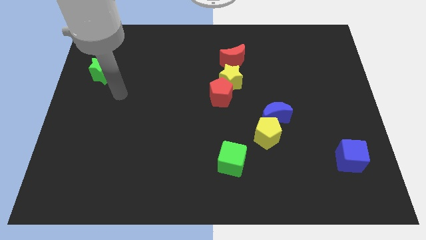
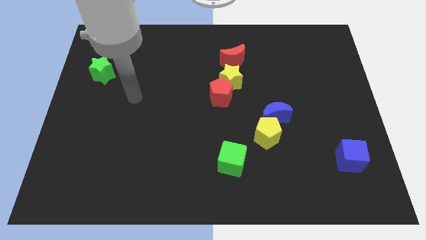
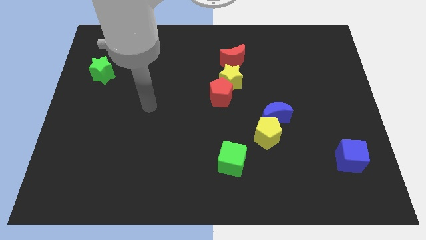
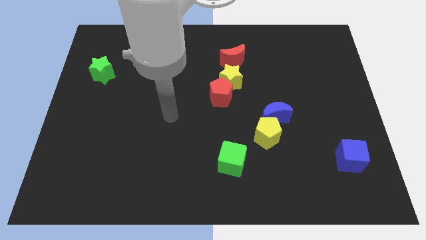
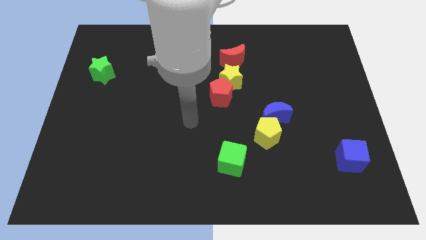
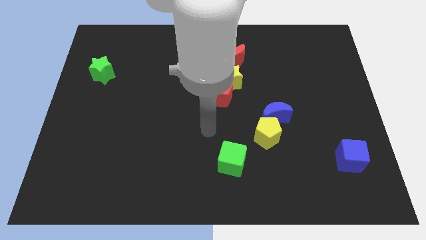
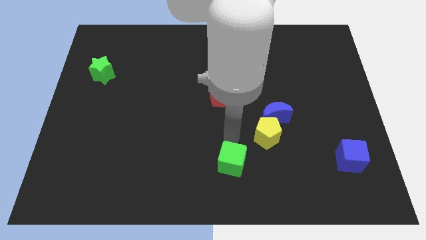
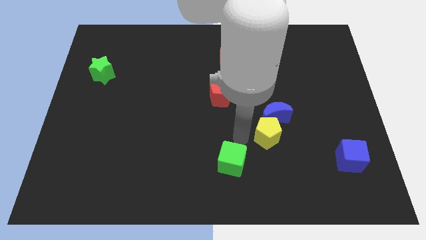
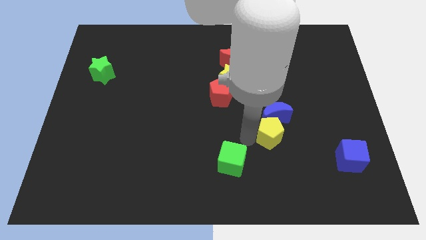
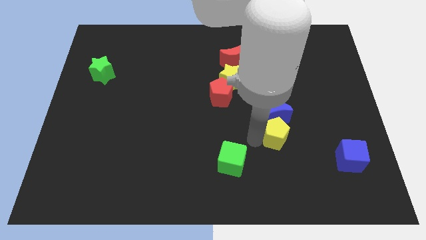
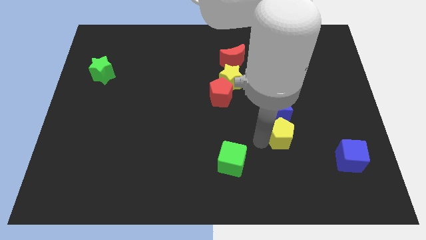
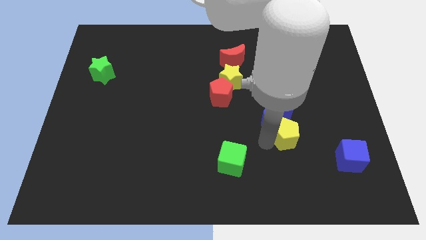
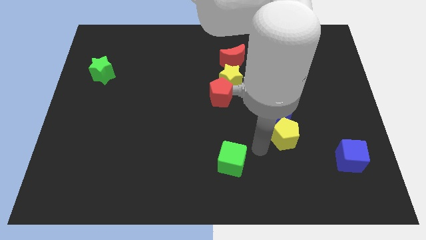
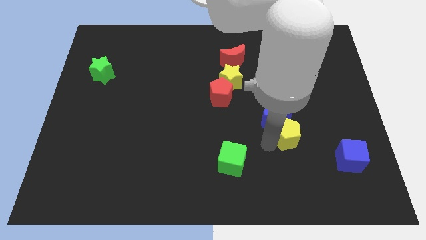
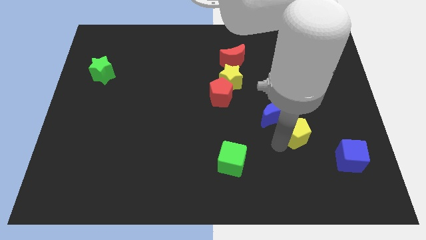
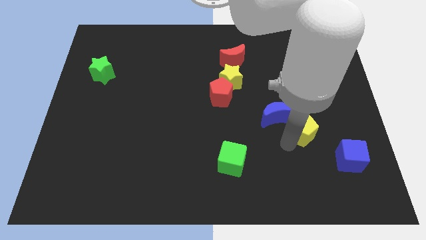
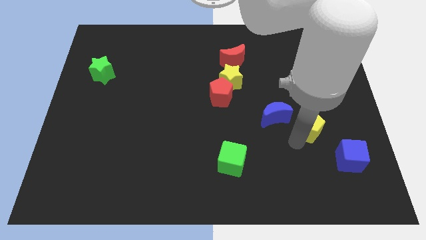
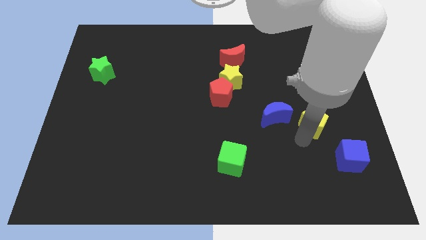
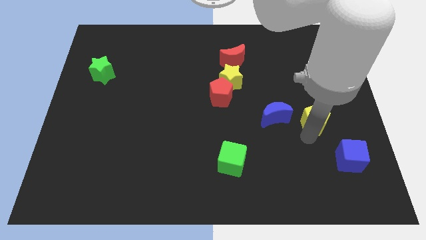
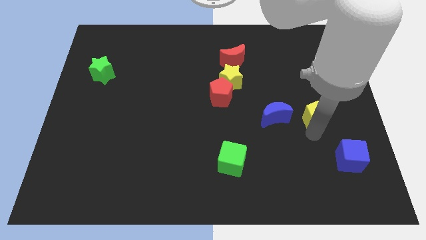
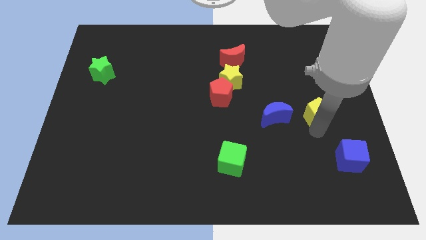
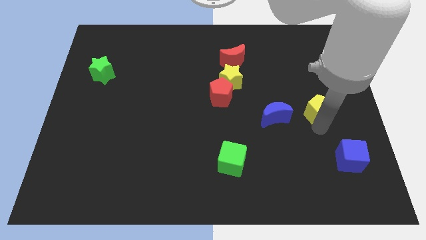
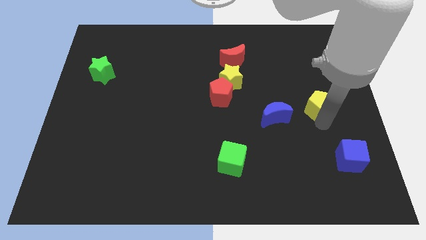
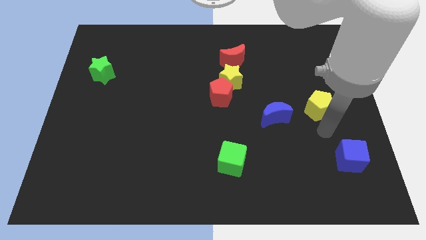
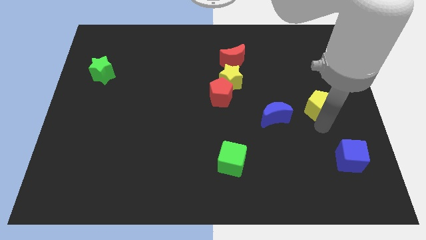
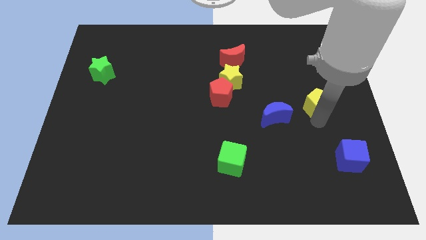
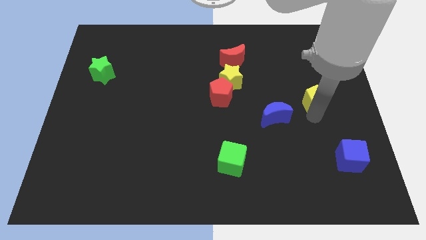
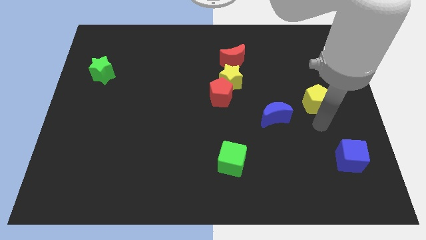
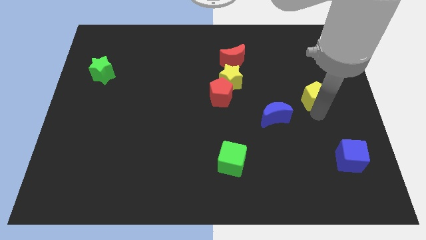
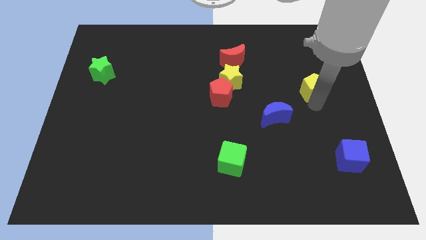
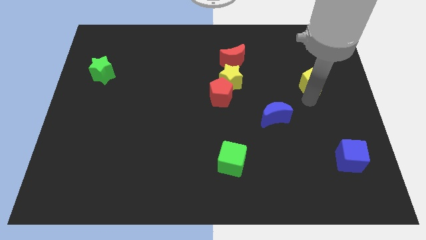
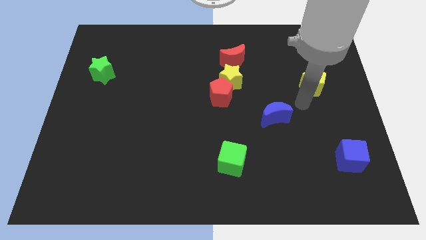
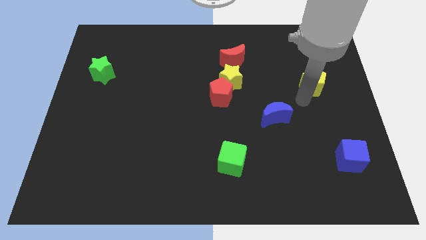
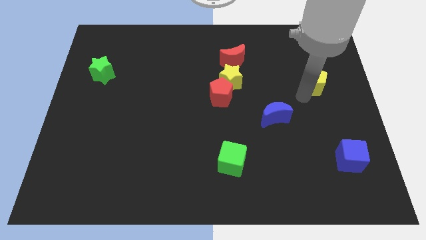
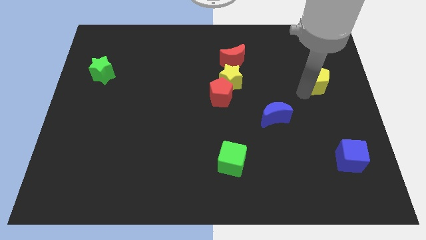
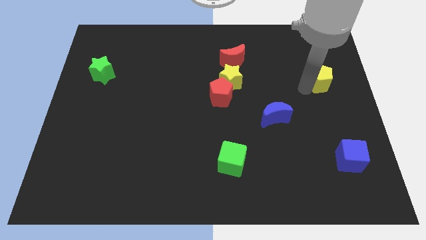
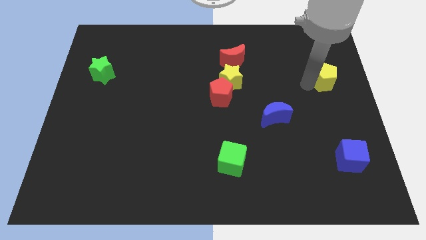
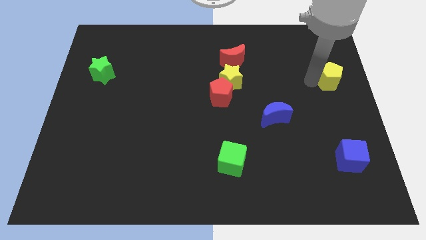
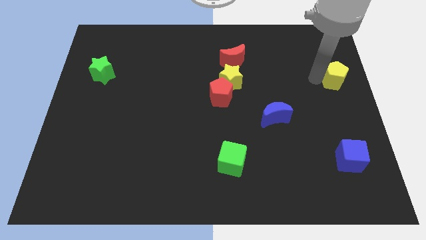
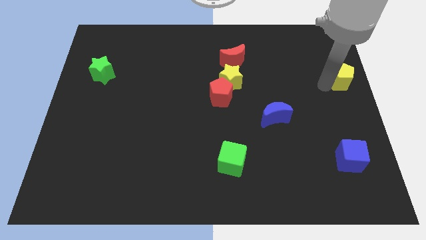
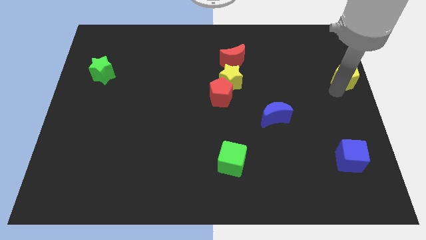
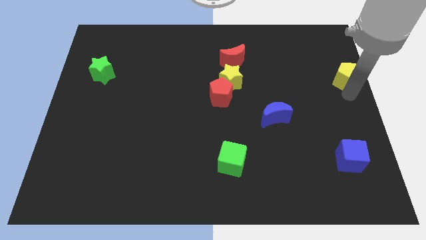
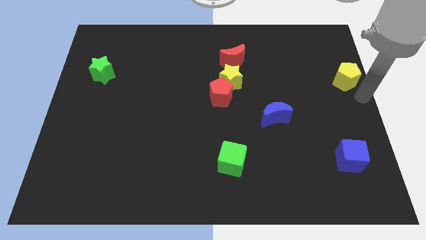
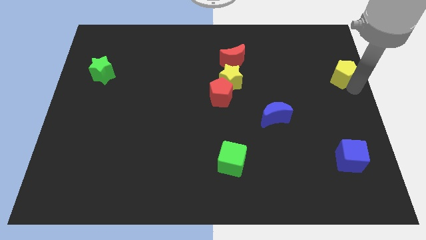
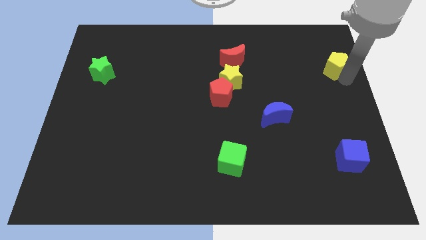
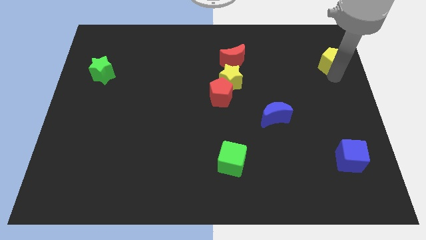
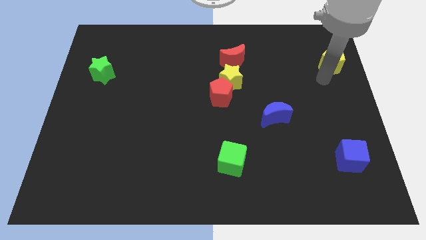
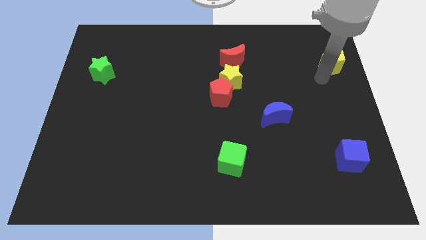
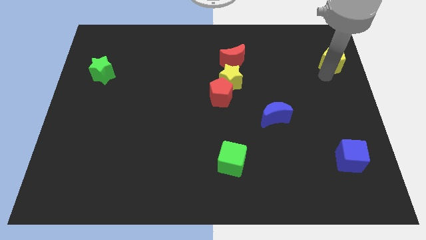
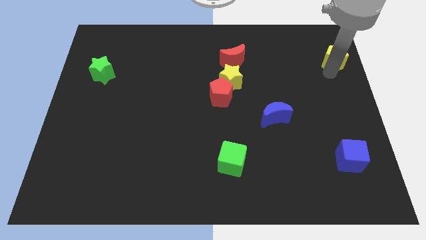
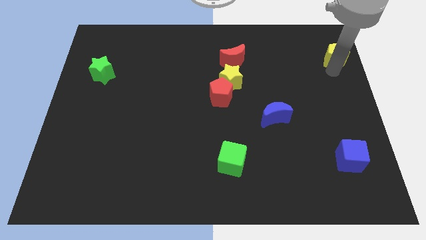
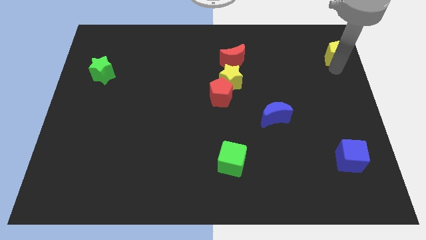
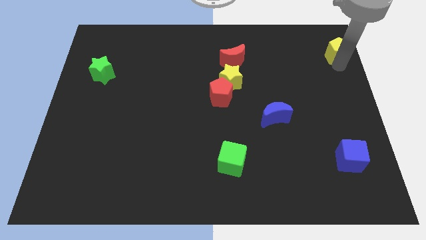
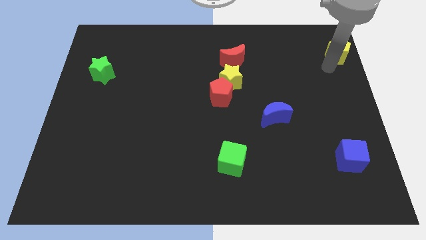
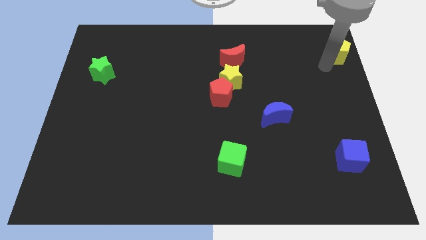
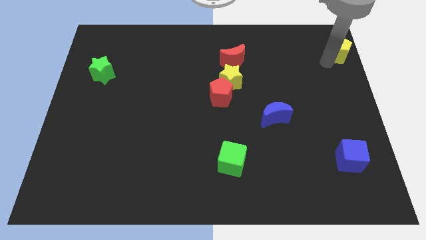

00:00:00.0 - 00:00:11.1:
slide the yellow pentagon to the top right
